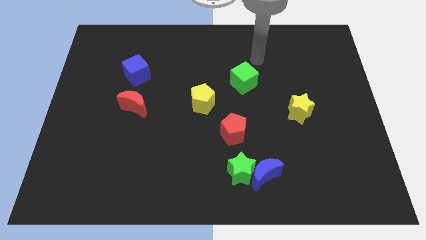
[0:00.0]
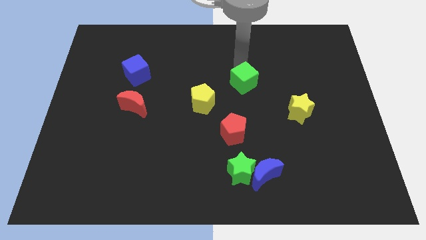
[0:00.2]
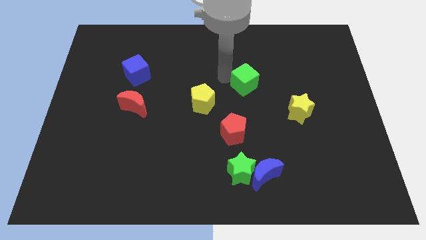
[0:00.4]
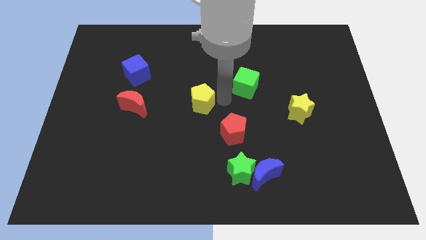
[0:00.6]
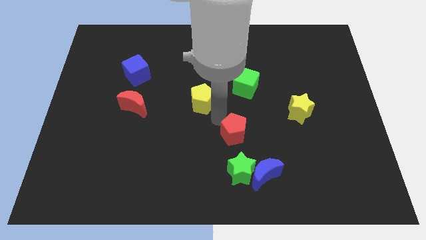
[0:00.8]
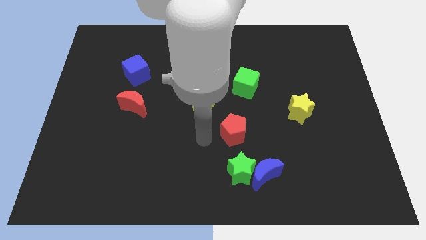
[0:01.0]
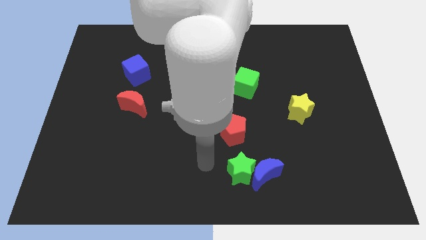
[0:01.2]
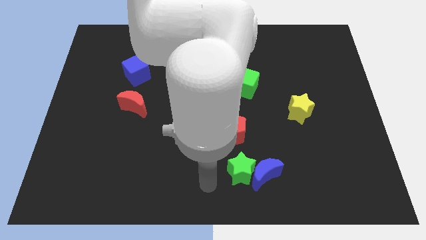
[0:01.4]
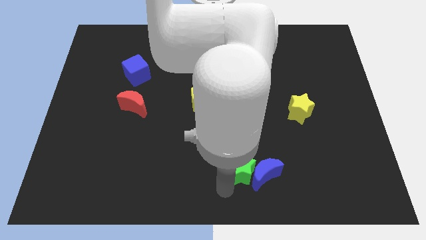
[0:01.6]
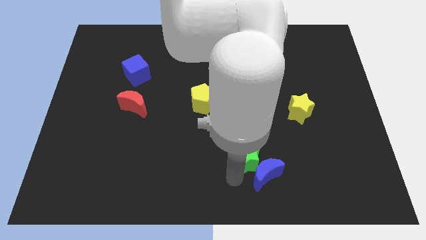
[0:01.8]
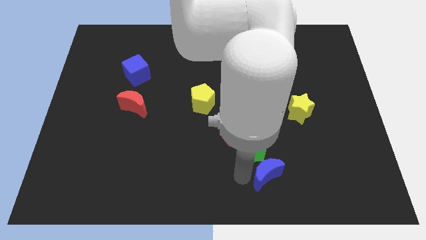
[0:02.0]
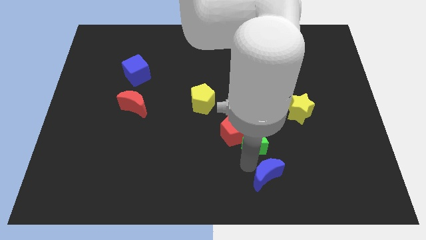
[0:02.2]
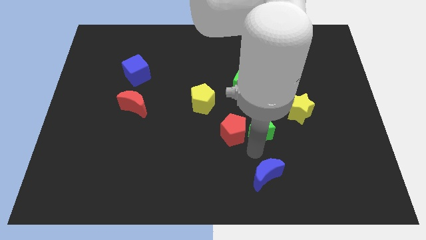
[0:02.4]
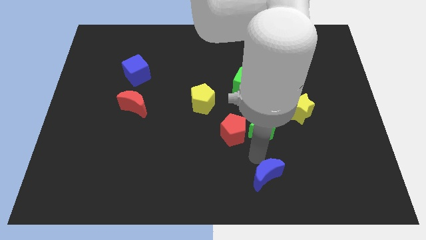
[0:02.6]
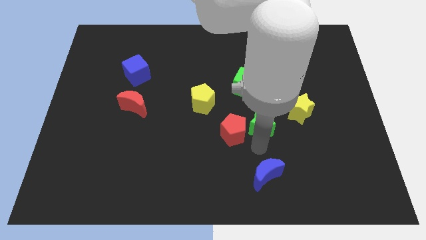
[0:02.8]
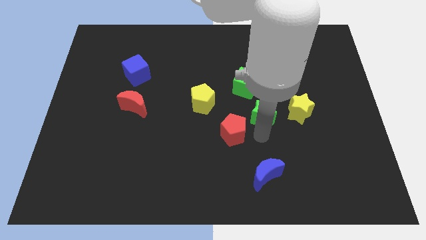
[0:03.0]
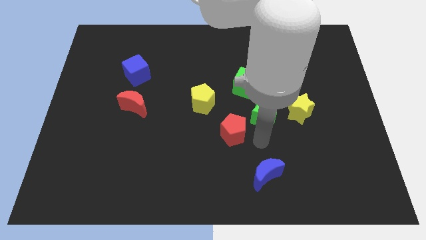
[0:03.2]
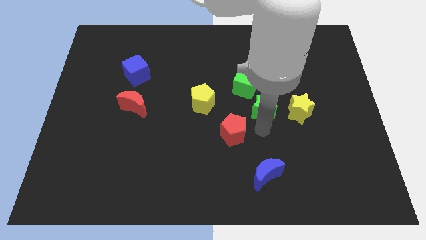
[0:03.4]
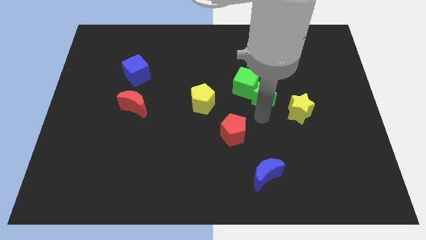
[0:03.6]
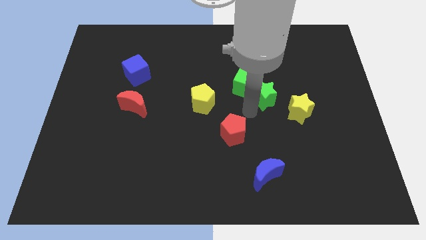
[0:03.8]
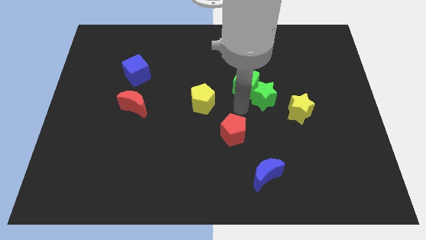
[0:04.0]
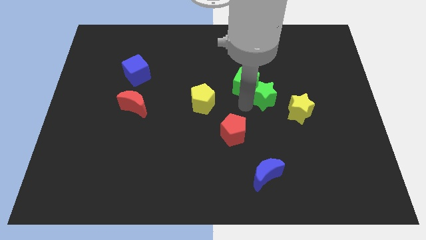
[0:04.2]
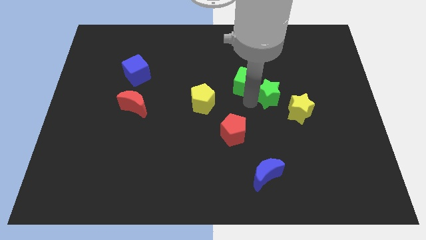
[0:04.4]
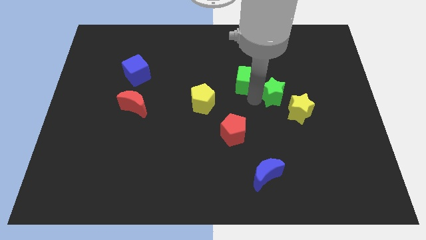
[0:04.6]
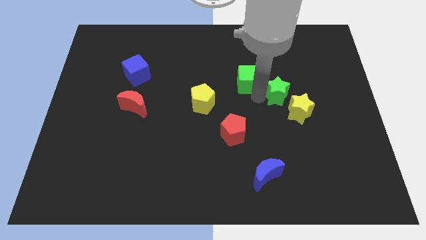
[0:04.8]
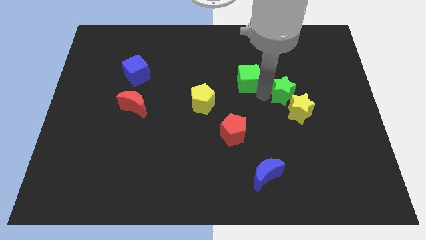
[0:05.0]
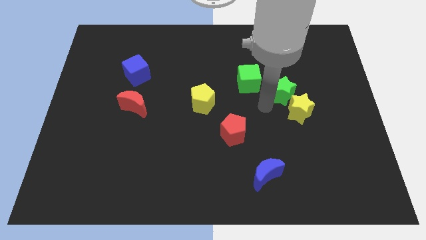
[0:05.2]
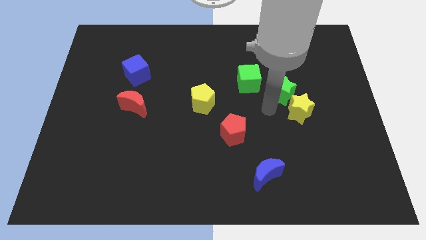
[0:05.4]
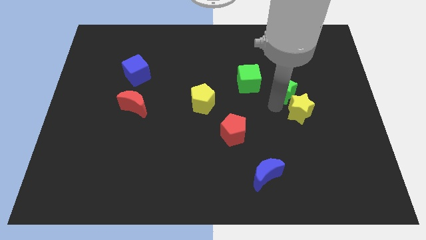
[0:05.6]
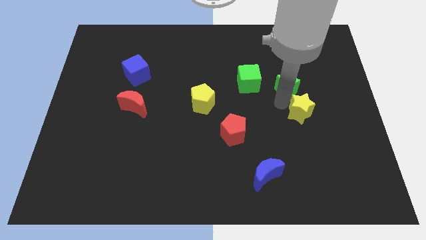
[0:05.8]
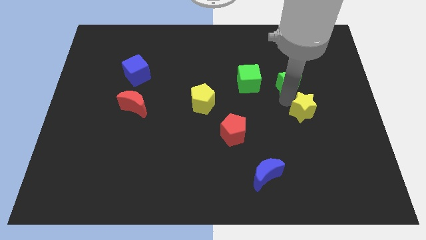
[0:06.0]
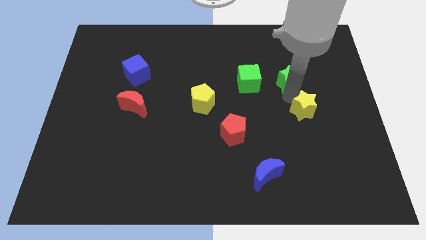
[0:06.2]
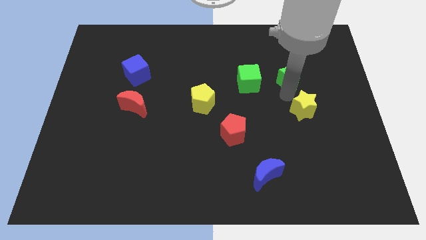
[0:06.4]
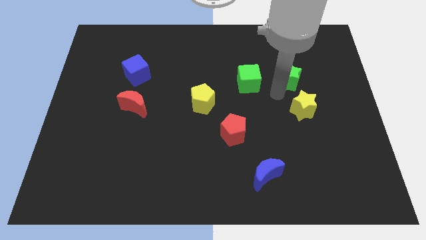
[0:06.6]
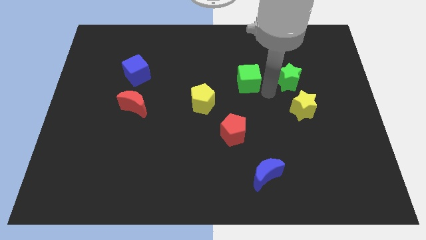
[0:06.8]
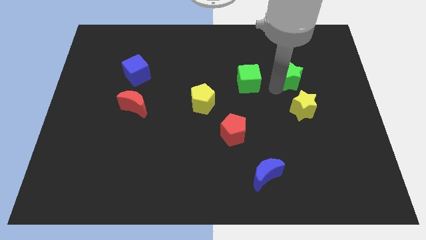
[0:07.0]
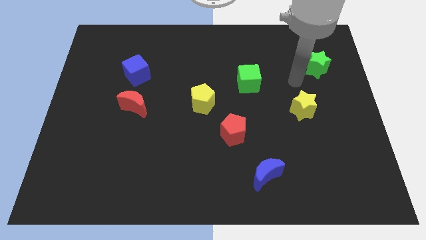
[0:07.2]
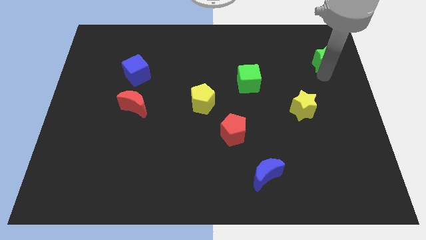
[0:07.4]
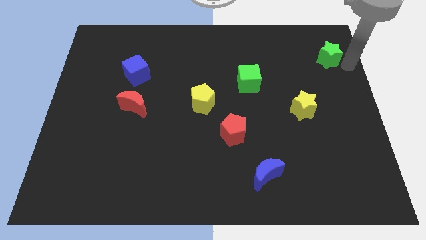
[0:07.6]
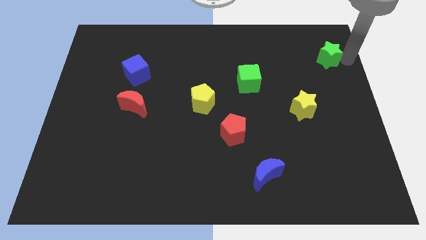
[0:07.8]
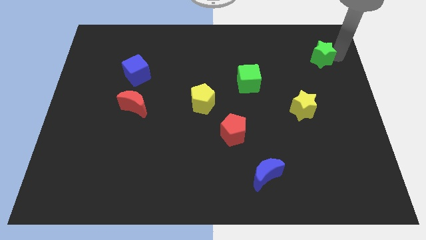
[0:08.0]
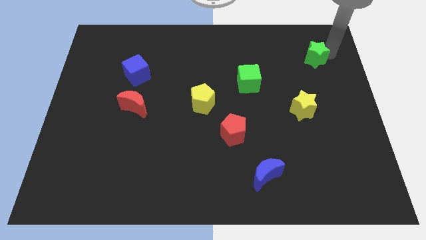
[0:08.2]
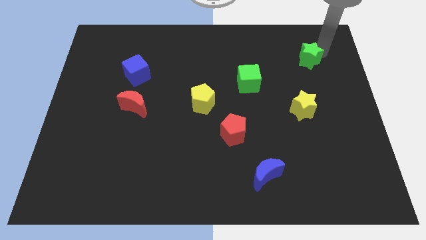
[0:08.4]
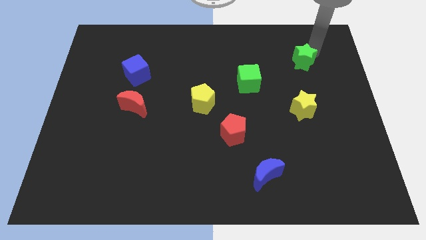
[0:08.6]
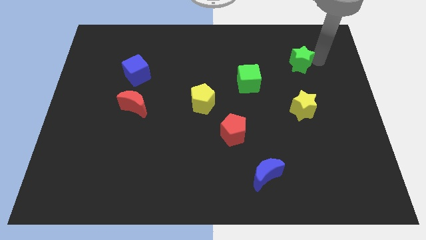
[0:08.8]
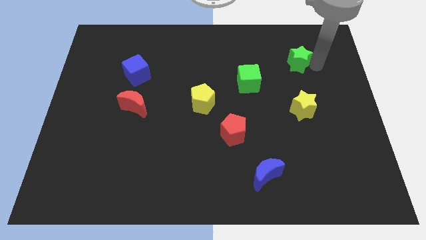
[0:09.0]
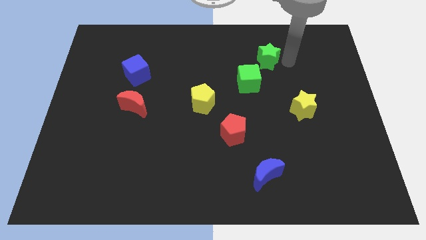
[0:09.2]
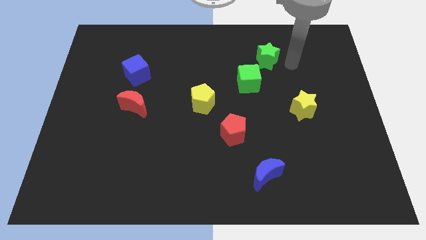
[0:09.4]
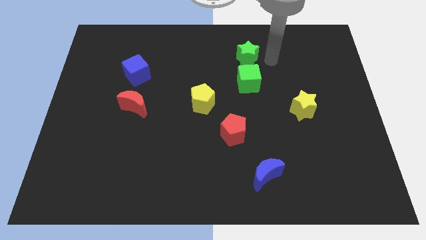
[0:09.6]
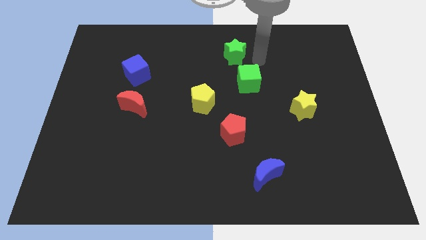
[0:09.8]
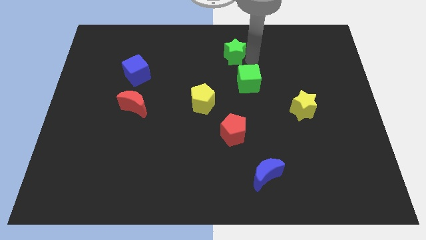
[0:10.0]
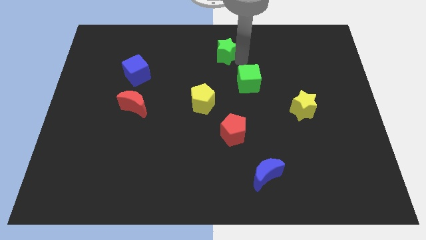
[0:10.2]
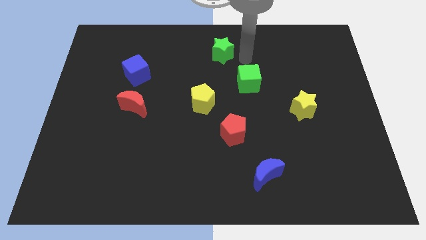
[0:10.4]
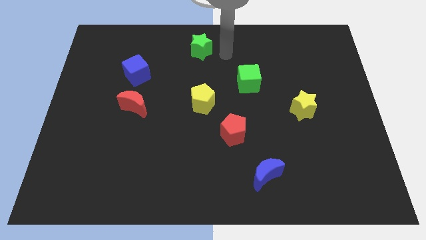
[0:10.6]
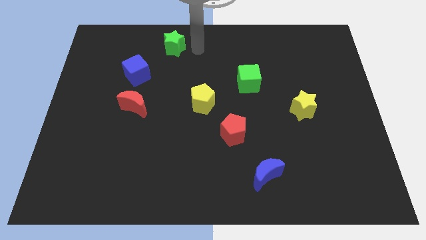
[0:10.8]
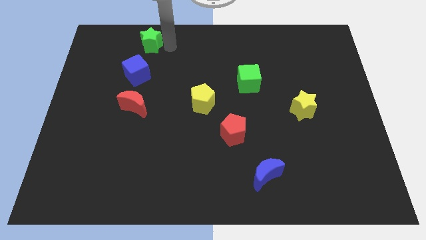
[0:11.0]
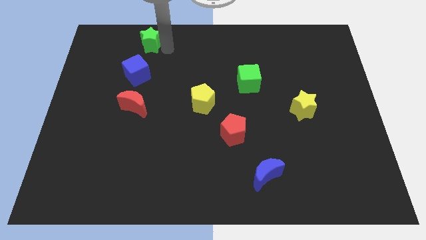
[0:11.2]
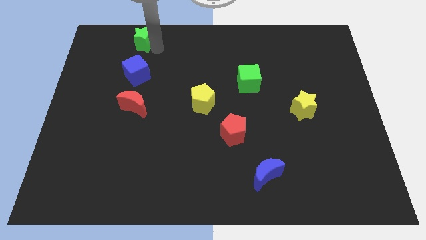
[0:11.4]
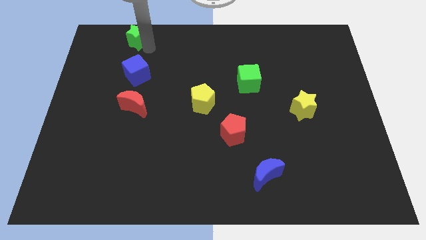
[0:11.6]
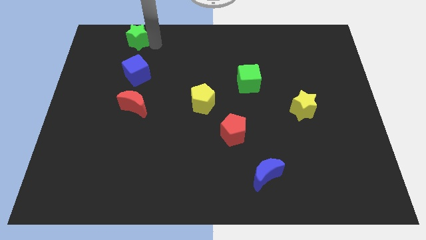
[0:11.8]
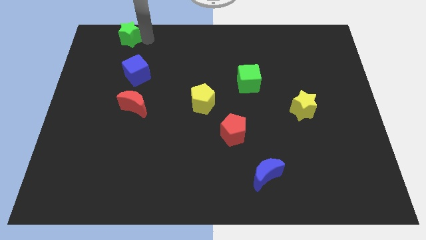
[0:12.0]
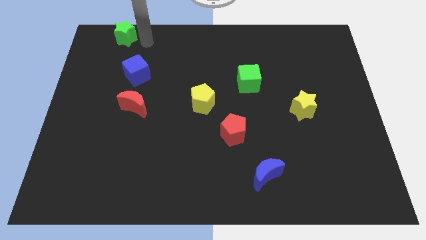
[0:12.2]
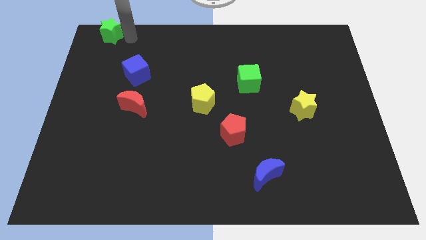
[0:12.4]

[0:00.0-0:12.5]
slide the green star to the top left corner

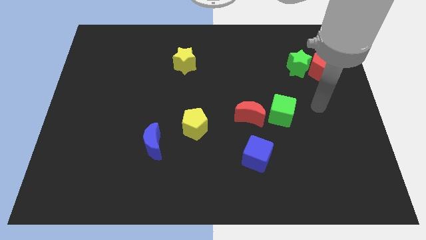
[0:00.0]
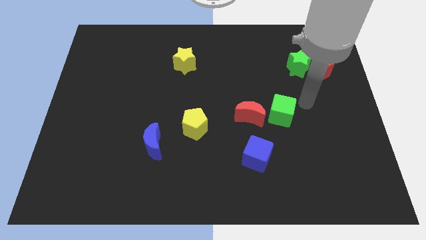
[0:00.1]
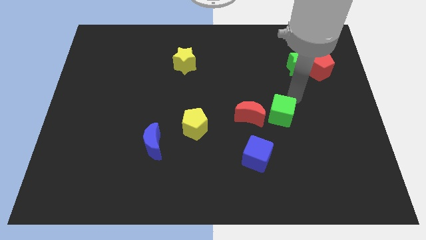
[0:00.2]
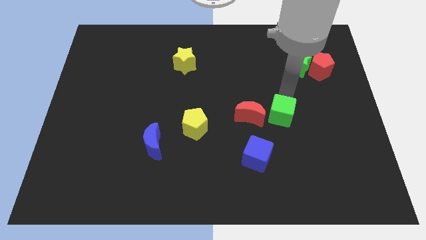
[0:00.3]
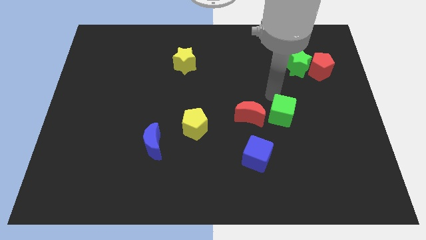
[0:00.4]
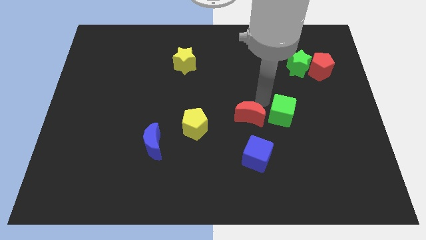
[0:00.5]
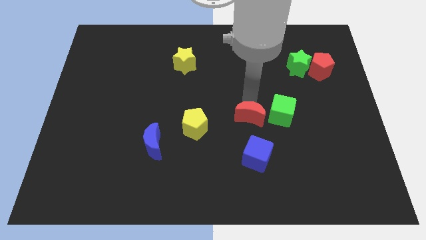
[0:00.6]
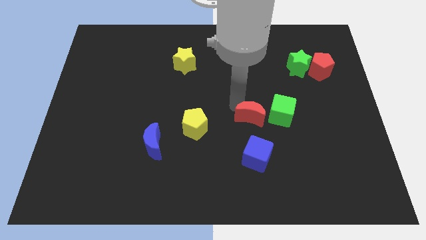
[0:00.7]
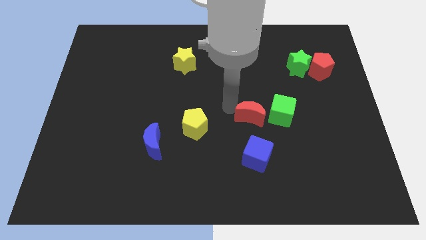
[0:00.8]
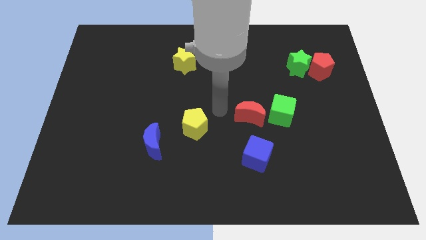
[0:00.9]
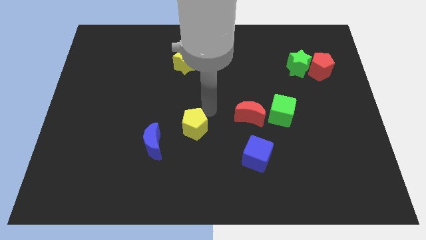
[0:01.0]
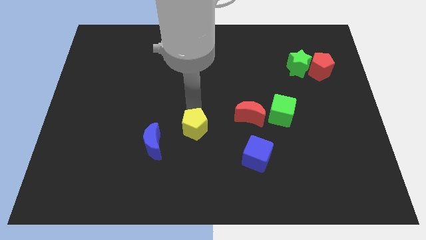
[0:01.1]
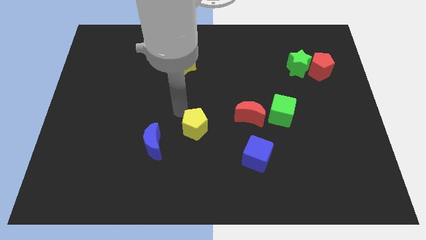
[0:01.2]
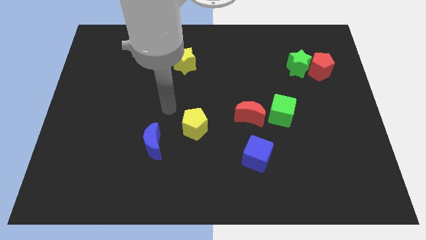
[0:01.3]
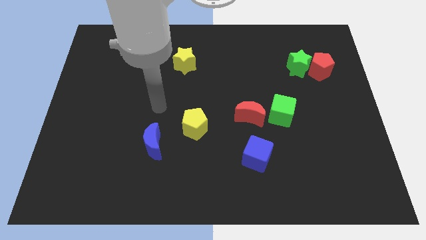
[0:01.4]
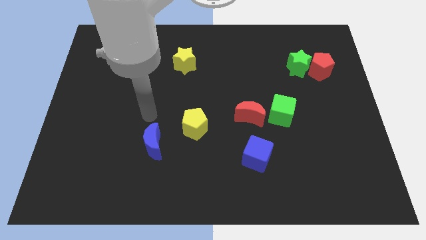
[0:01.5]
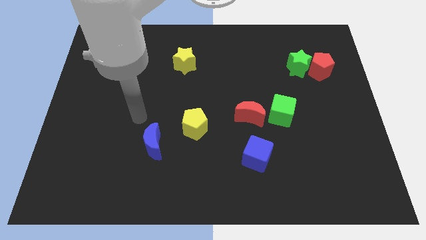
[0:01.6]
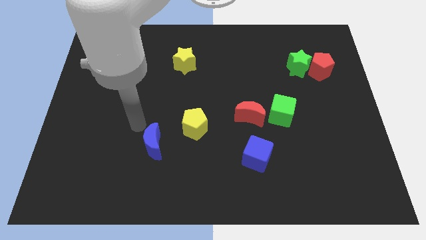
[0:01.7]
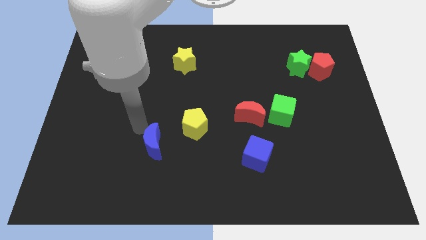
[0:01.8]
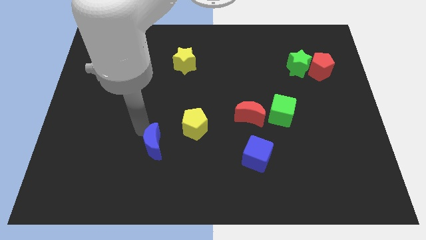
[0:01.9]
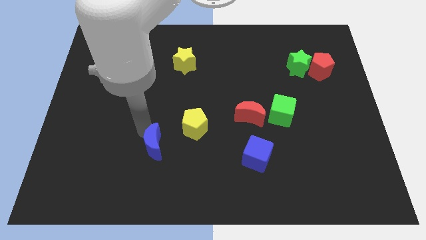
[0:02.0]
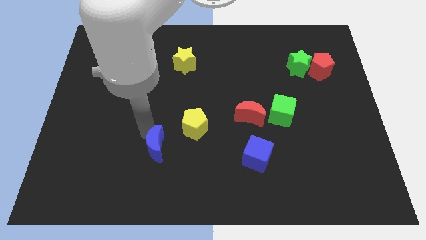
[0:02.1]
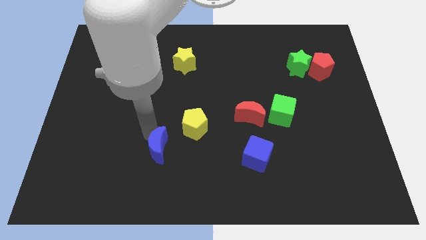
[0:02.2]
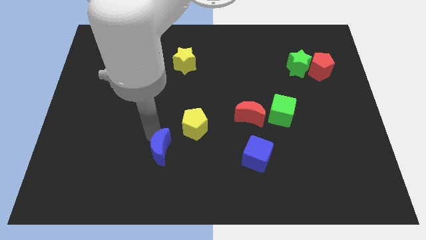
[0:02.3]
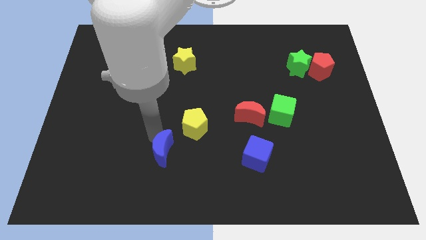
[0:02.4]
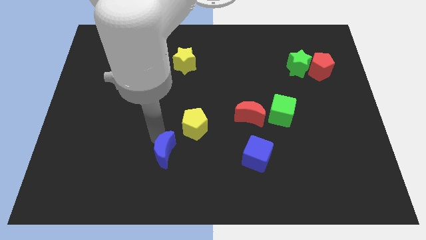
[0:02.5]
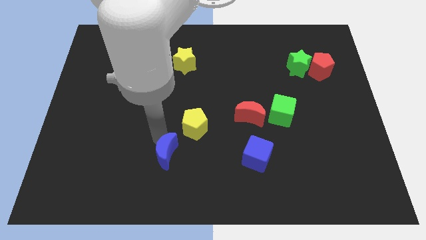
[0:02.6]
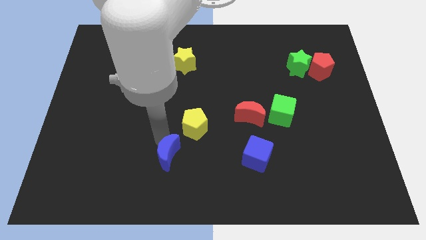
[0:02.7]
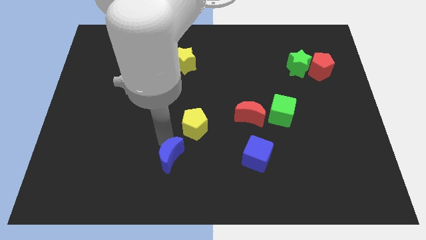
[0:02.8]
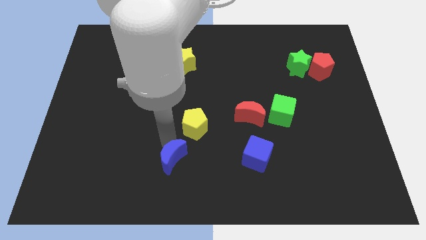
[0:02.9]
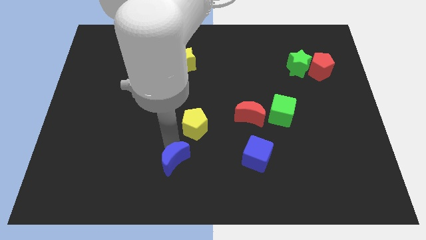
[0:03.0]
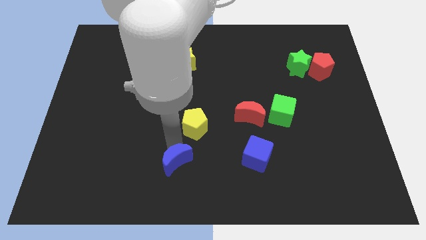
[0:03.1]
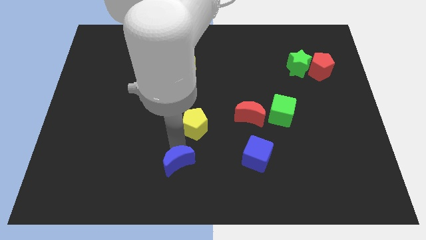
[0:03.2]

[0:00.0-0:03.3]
move the blue moon to the bottom
